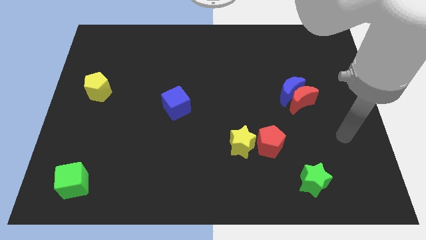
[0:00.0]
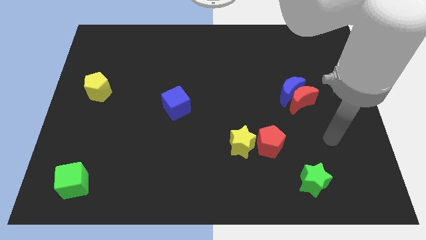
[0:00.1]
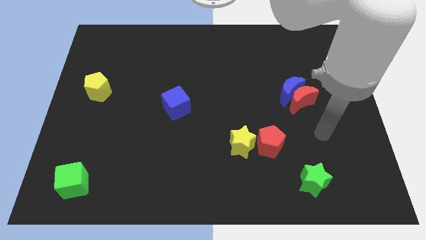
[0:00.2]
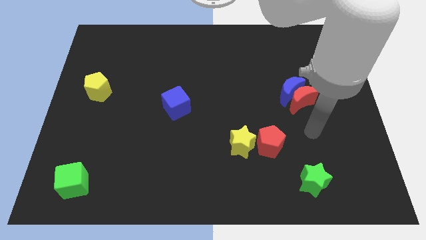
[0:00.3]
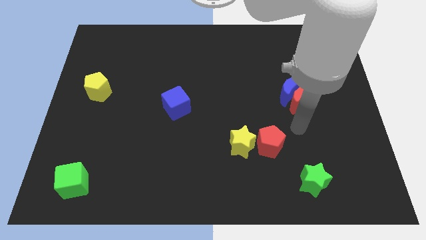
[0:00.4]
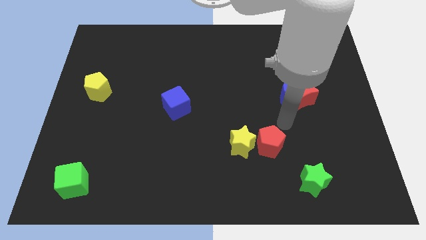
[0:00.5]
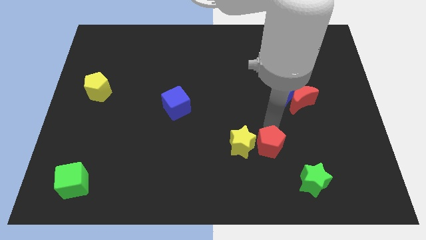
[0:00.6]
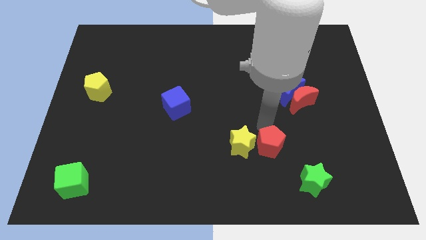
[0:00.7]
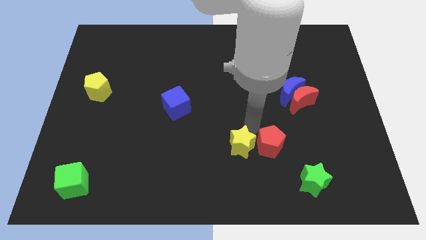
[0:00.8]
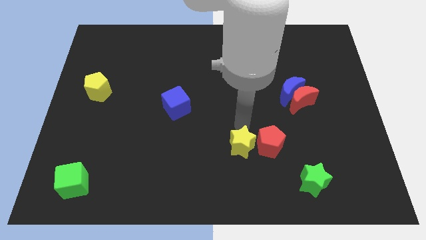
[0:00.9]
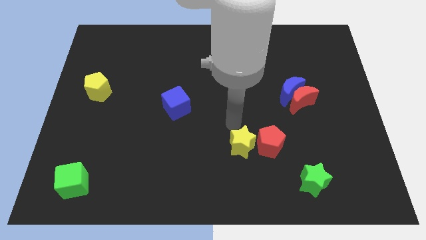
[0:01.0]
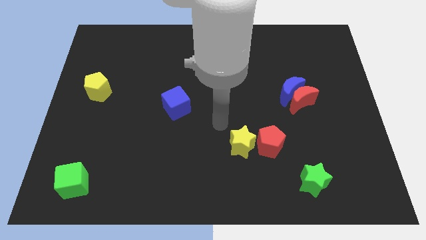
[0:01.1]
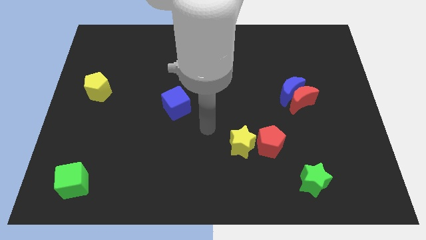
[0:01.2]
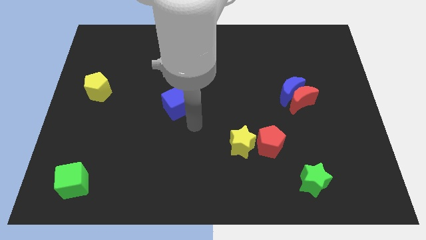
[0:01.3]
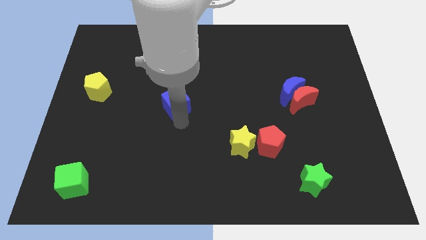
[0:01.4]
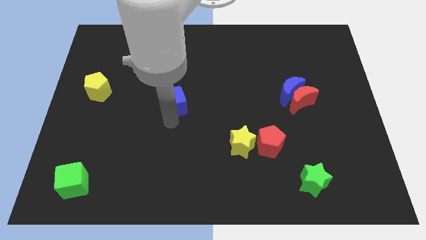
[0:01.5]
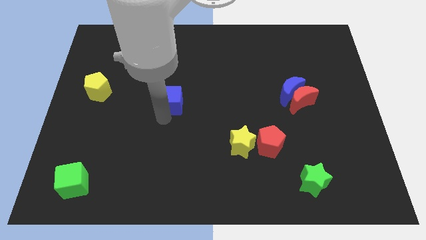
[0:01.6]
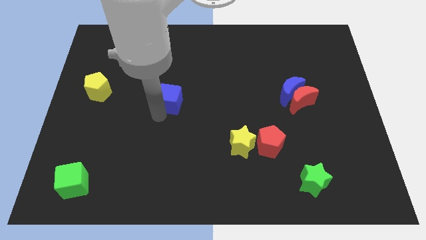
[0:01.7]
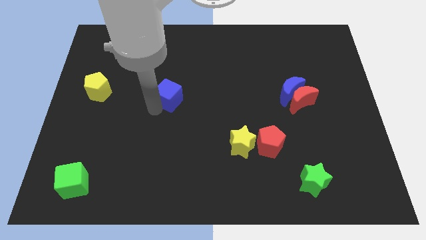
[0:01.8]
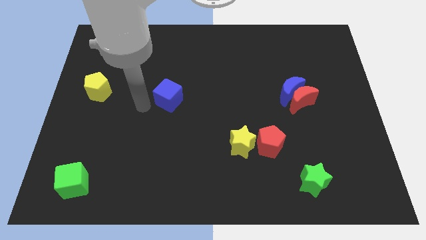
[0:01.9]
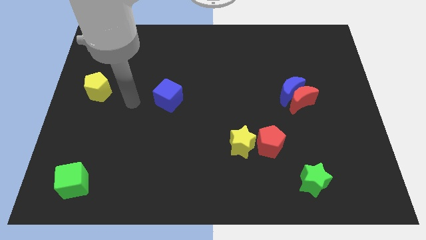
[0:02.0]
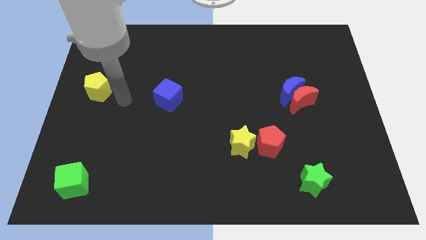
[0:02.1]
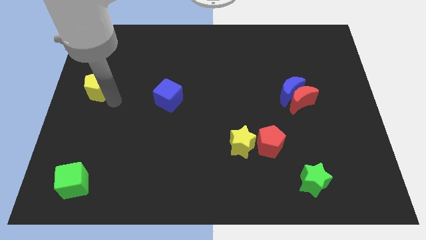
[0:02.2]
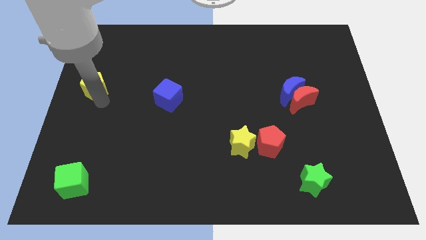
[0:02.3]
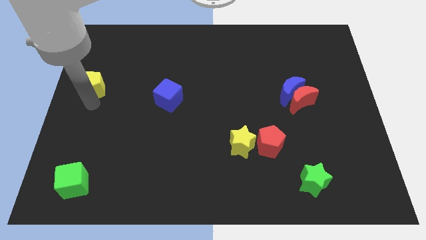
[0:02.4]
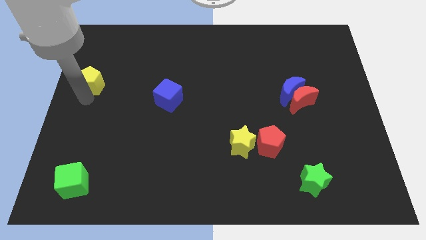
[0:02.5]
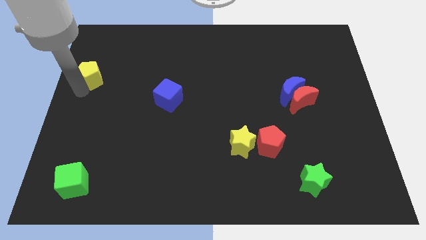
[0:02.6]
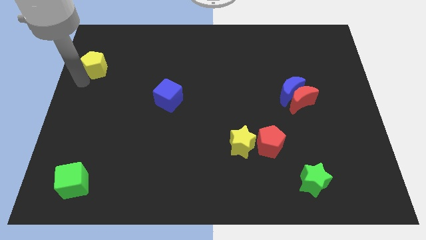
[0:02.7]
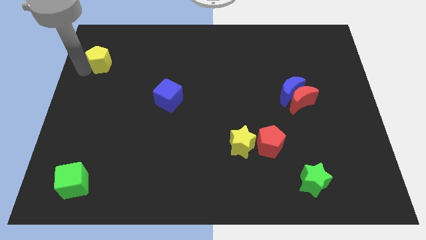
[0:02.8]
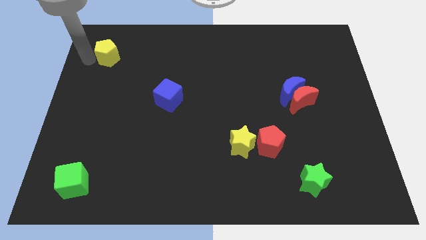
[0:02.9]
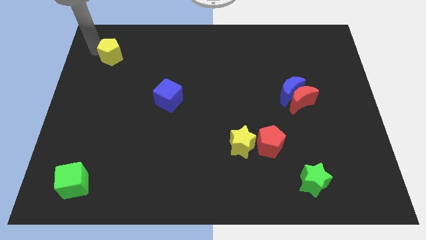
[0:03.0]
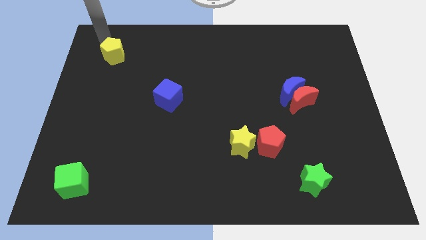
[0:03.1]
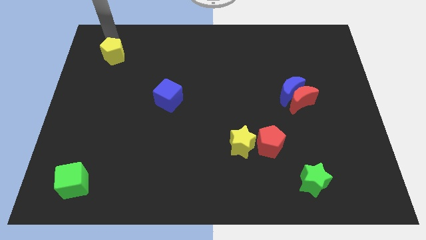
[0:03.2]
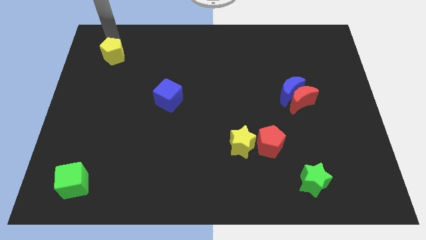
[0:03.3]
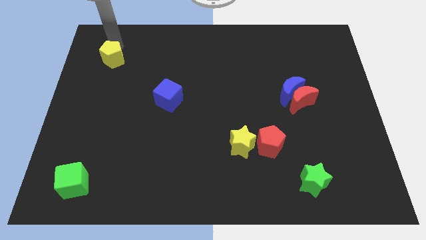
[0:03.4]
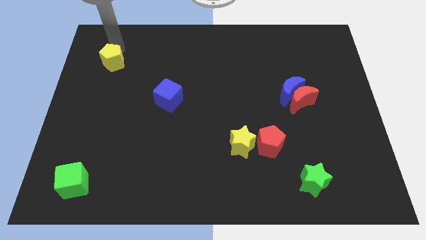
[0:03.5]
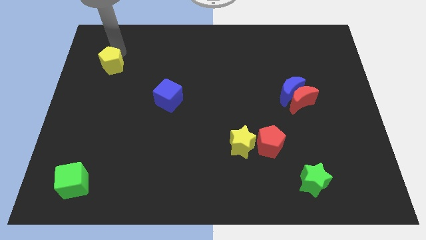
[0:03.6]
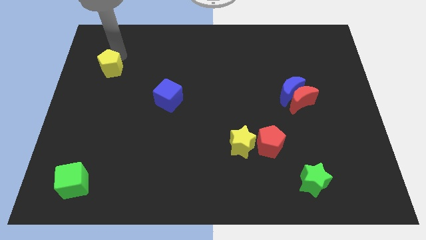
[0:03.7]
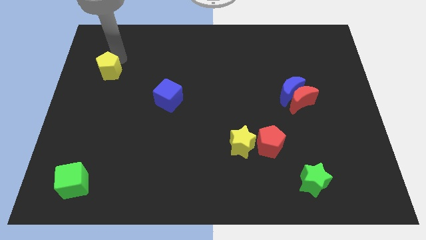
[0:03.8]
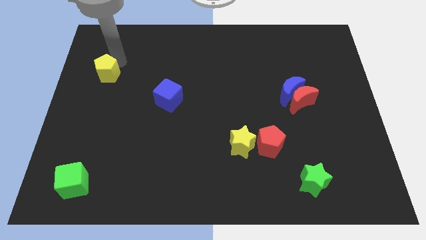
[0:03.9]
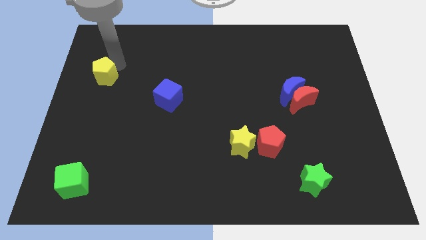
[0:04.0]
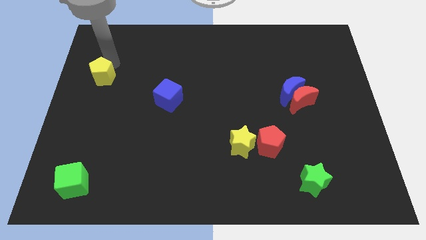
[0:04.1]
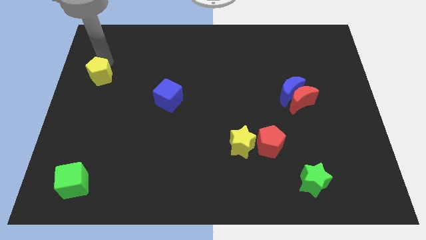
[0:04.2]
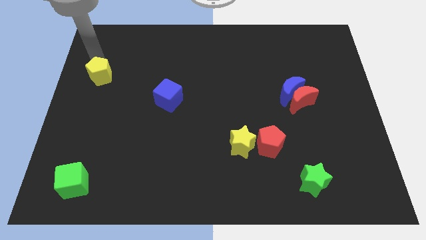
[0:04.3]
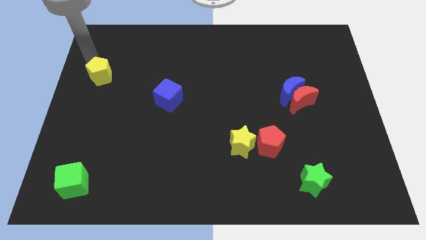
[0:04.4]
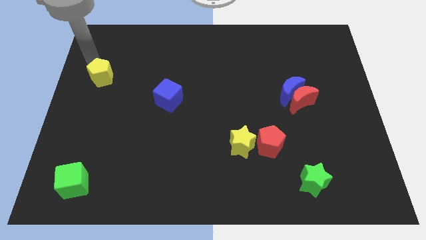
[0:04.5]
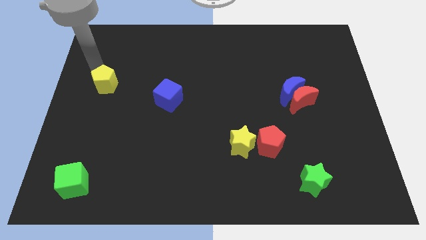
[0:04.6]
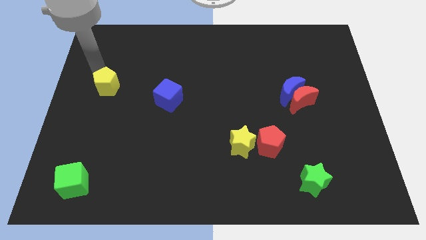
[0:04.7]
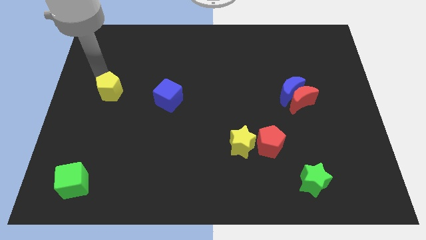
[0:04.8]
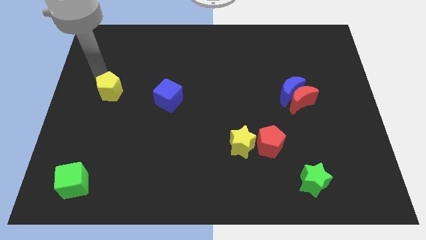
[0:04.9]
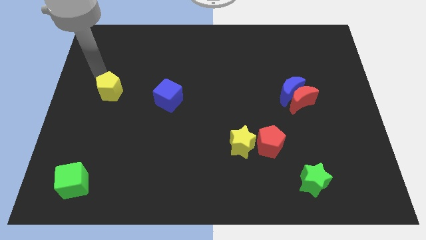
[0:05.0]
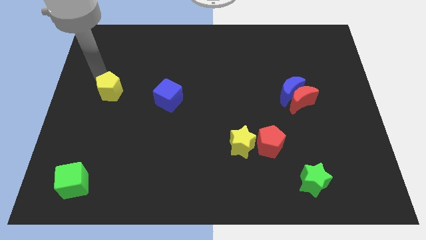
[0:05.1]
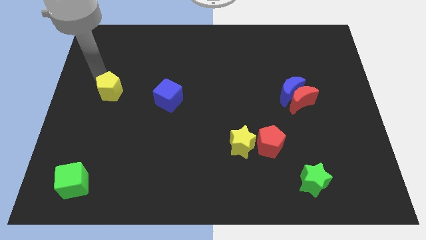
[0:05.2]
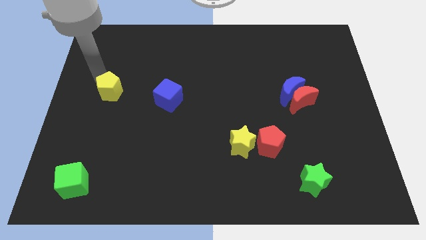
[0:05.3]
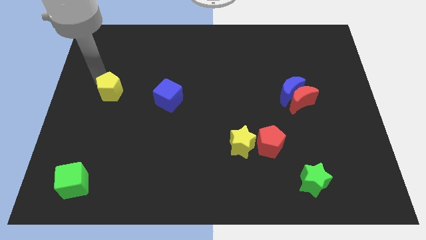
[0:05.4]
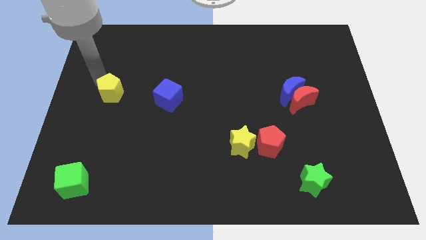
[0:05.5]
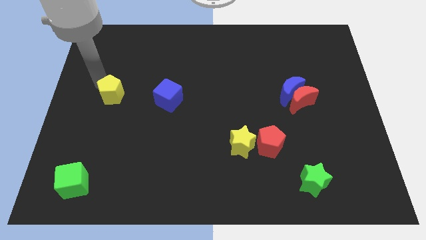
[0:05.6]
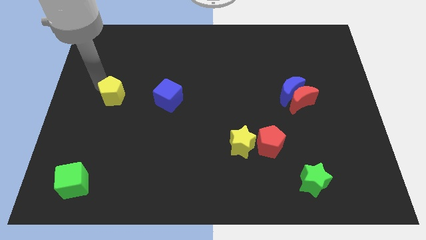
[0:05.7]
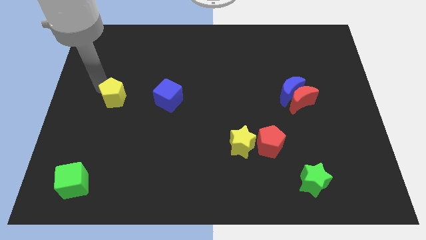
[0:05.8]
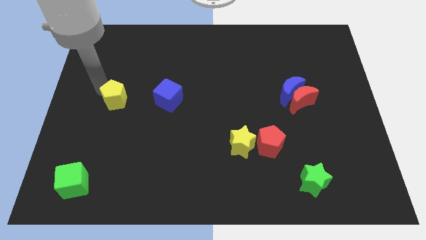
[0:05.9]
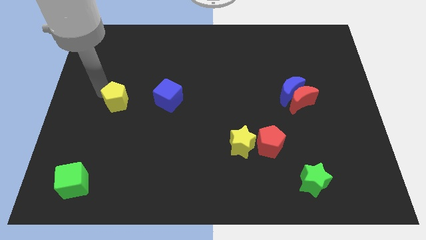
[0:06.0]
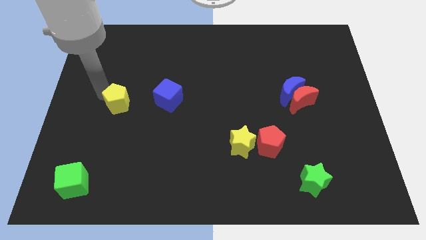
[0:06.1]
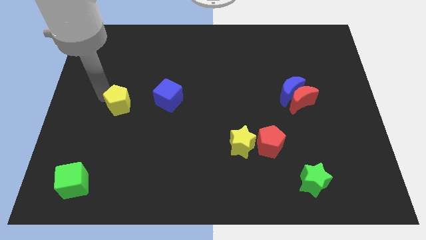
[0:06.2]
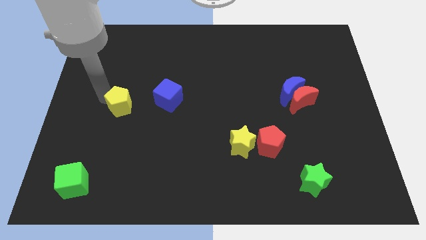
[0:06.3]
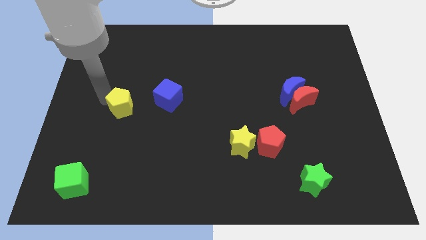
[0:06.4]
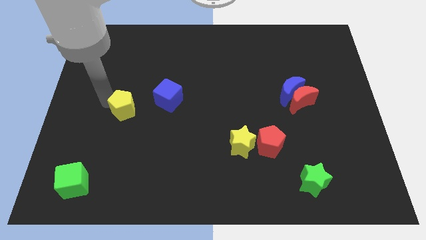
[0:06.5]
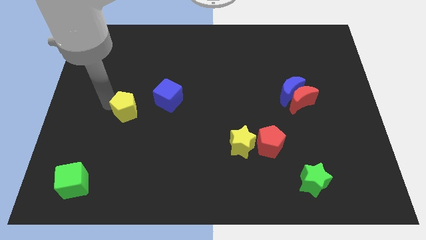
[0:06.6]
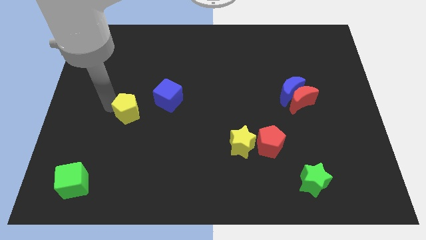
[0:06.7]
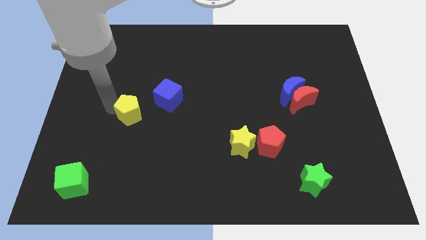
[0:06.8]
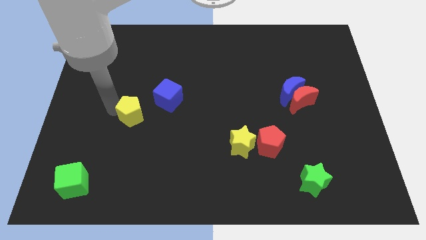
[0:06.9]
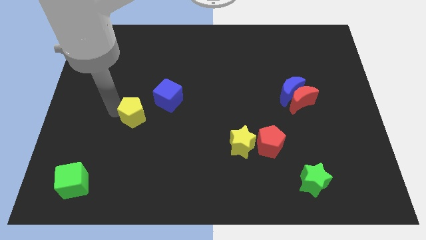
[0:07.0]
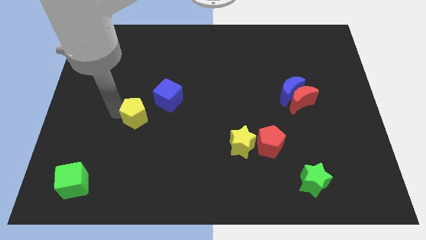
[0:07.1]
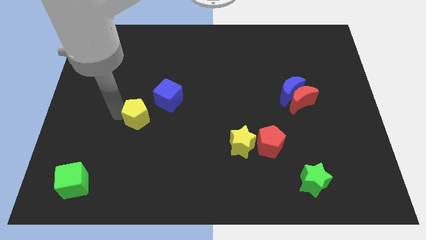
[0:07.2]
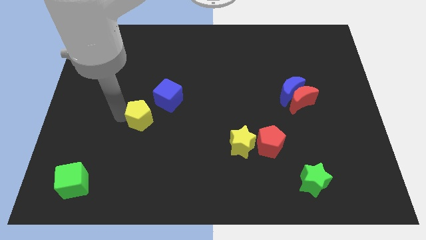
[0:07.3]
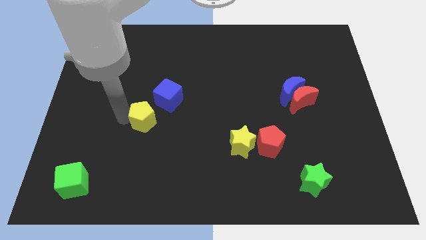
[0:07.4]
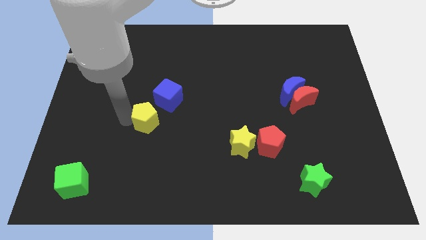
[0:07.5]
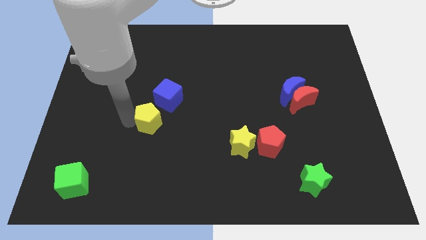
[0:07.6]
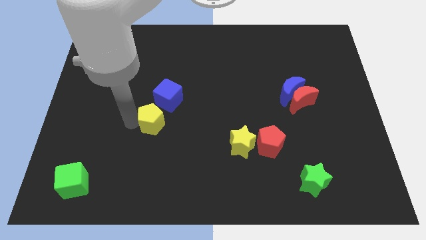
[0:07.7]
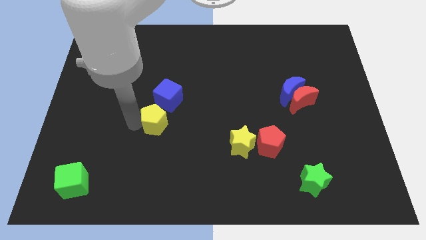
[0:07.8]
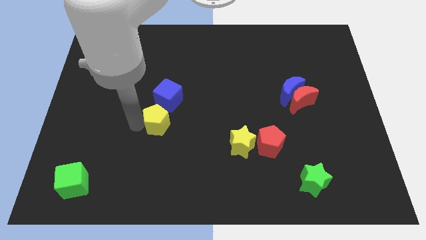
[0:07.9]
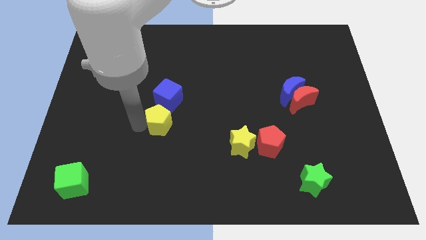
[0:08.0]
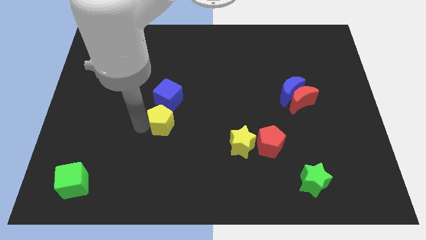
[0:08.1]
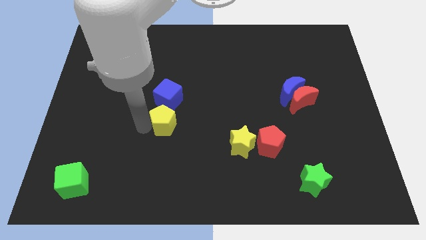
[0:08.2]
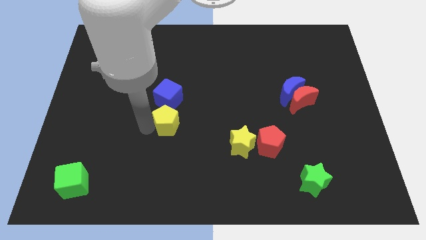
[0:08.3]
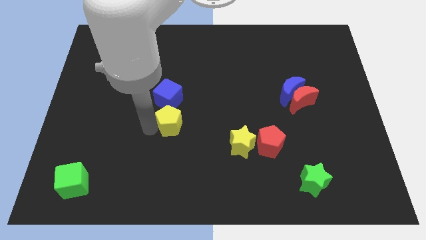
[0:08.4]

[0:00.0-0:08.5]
put the yellow pentagon to the bottom right side of the blue cube
